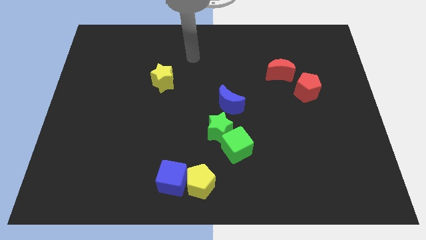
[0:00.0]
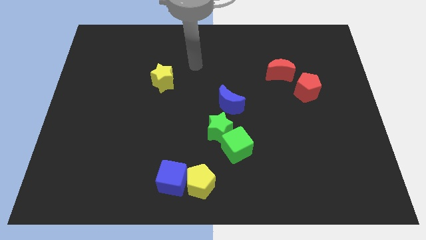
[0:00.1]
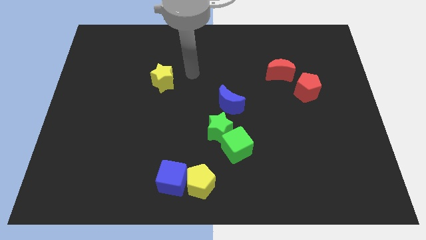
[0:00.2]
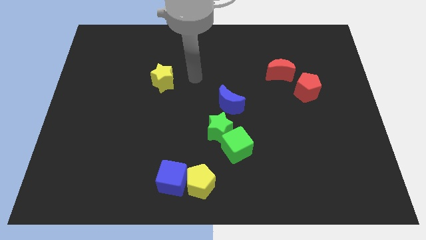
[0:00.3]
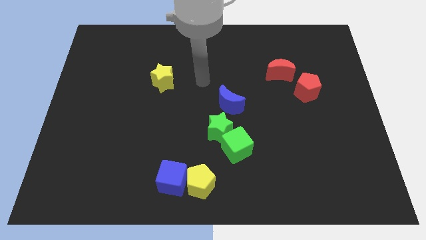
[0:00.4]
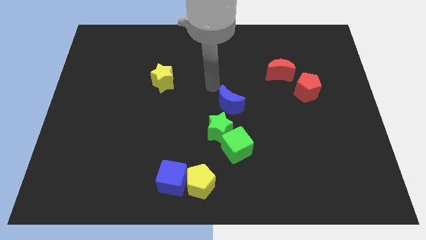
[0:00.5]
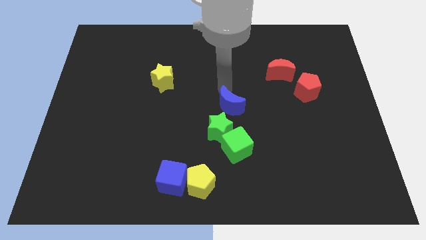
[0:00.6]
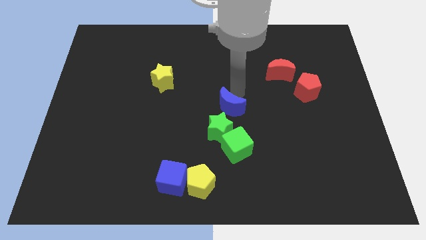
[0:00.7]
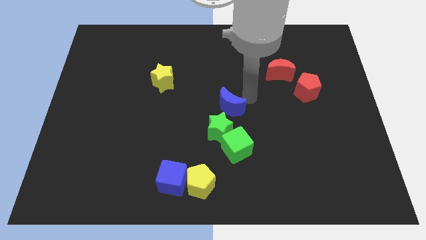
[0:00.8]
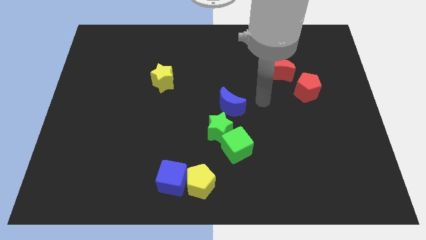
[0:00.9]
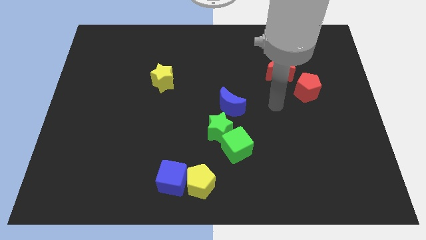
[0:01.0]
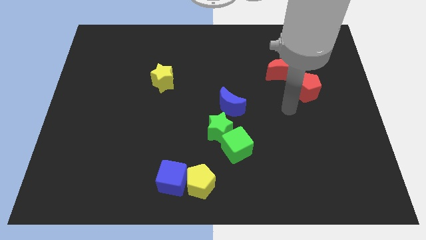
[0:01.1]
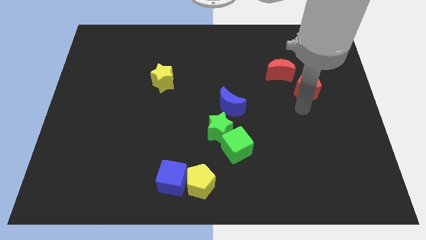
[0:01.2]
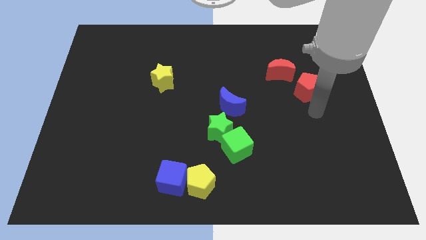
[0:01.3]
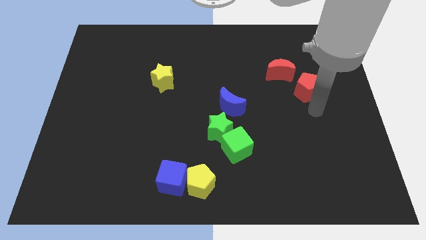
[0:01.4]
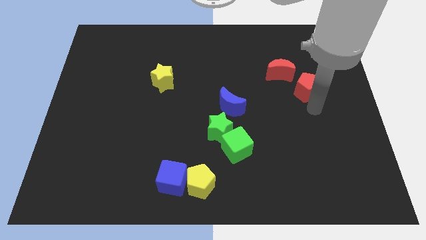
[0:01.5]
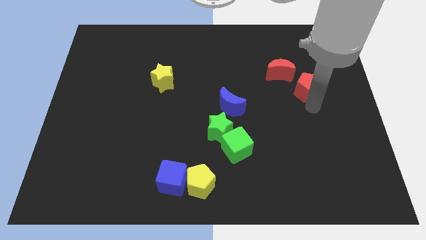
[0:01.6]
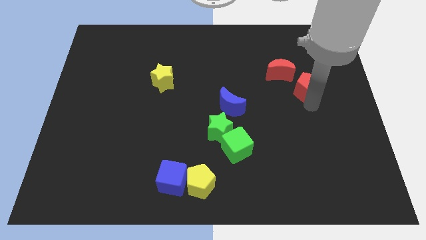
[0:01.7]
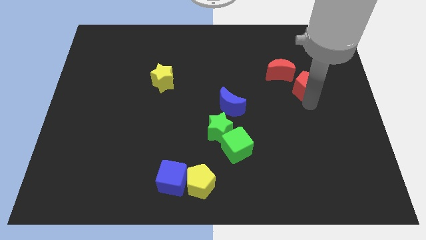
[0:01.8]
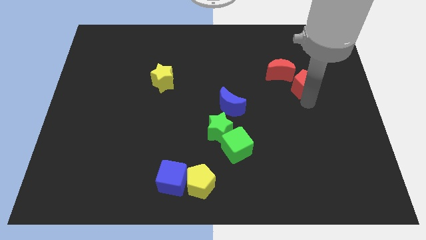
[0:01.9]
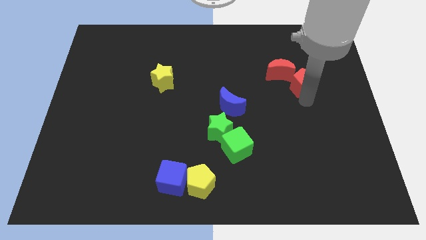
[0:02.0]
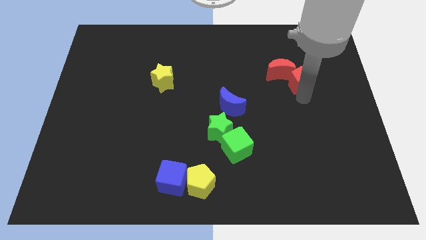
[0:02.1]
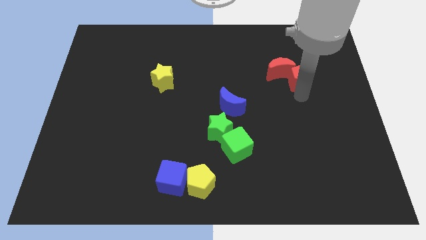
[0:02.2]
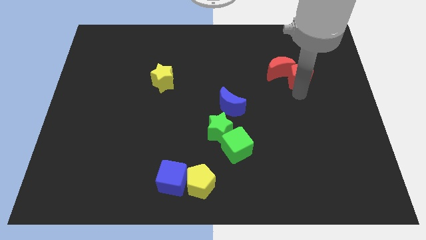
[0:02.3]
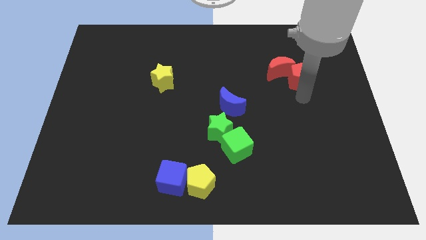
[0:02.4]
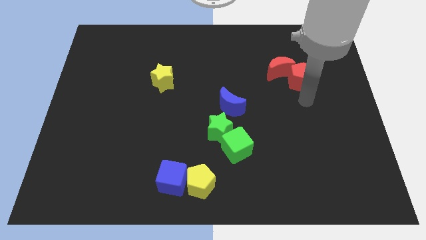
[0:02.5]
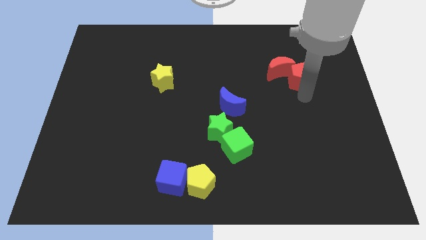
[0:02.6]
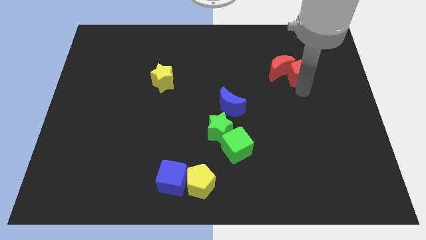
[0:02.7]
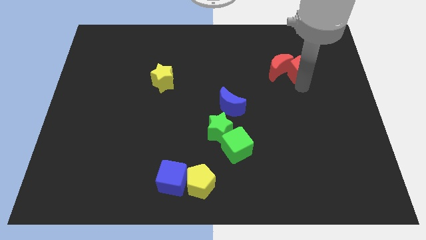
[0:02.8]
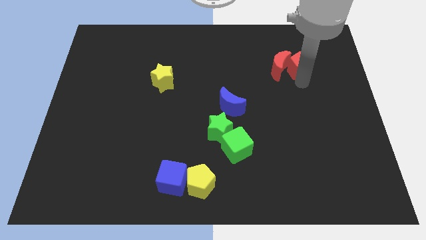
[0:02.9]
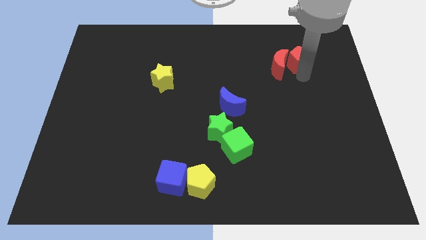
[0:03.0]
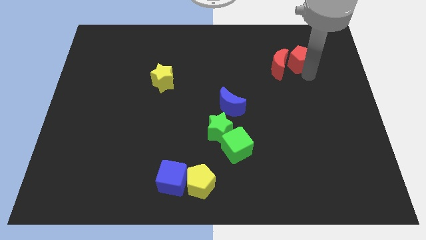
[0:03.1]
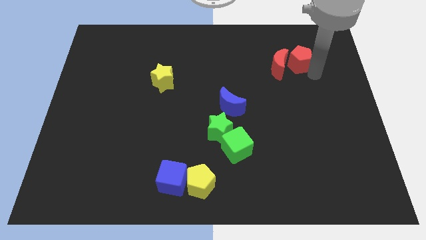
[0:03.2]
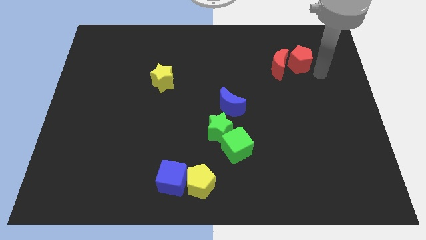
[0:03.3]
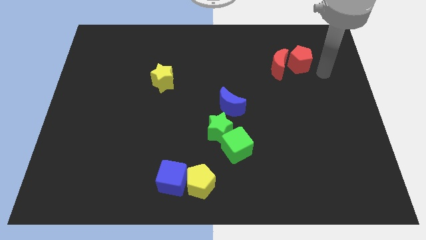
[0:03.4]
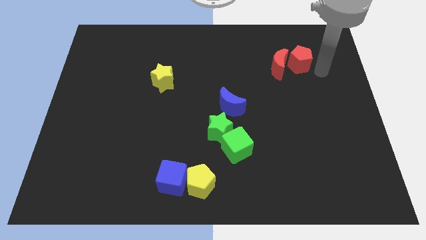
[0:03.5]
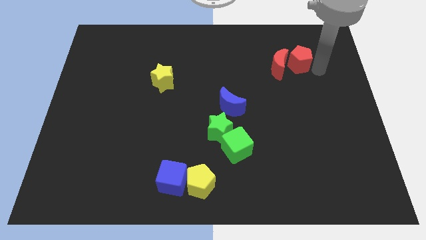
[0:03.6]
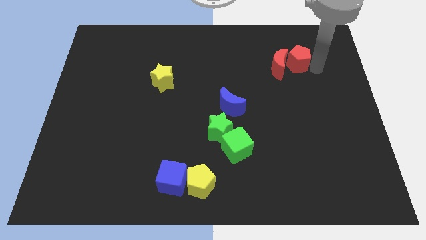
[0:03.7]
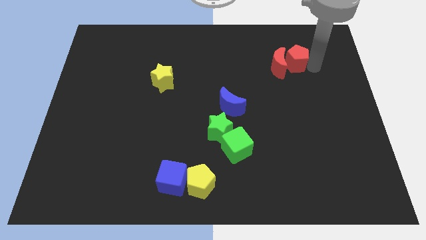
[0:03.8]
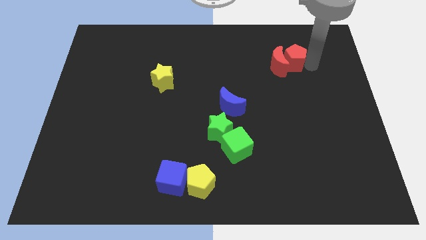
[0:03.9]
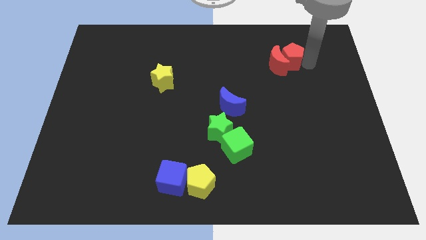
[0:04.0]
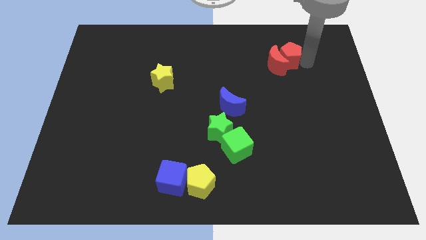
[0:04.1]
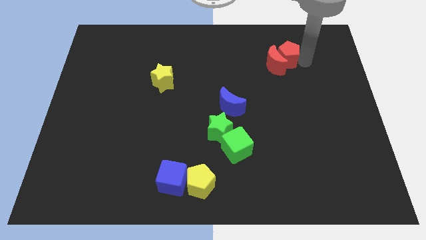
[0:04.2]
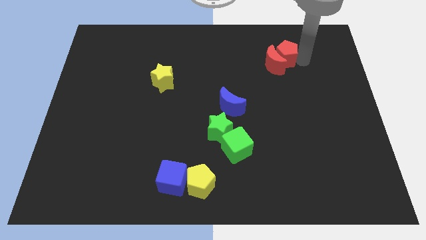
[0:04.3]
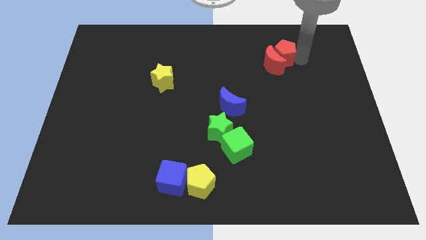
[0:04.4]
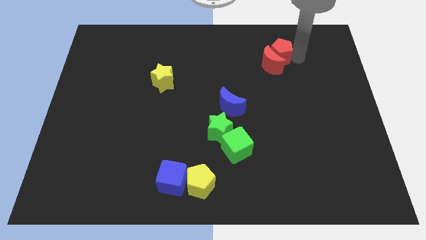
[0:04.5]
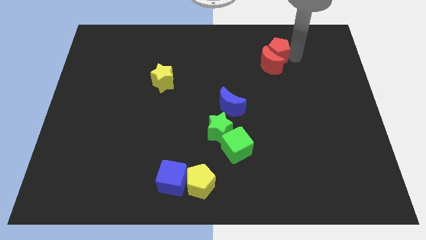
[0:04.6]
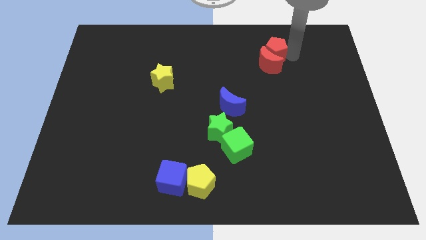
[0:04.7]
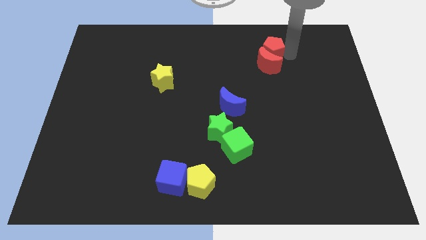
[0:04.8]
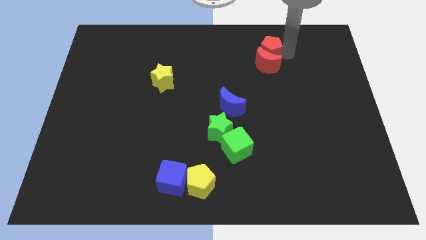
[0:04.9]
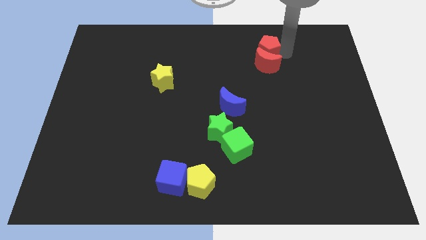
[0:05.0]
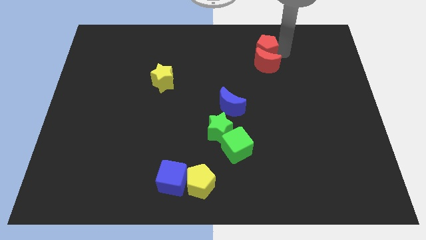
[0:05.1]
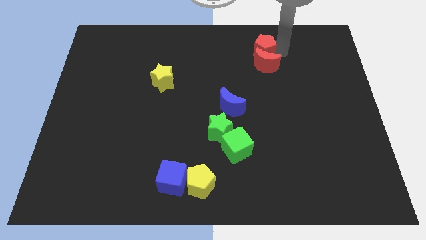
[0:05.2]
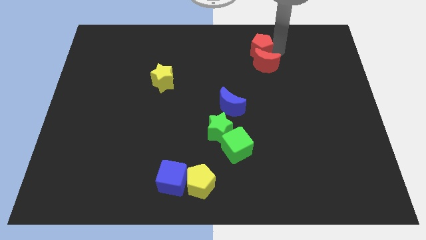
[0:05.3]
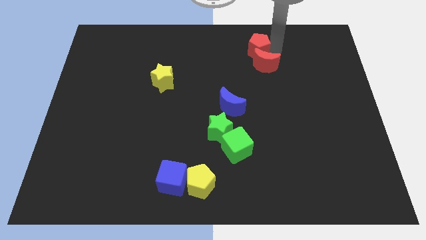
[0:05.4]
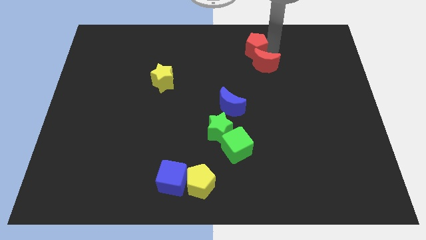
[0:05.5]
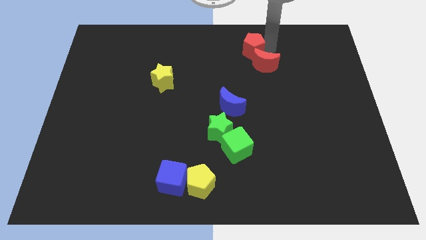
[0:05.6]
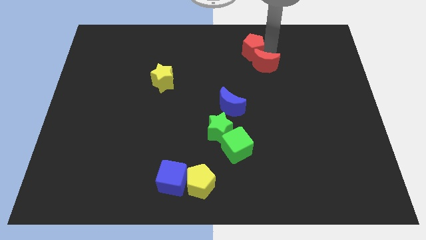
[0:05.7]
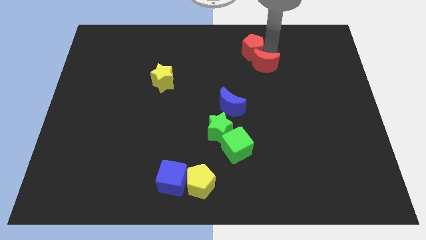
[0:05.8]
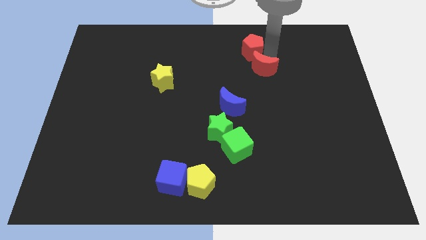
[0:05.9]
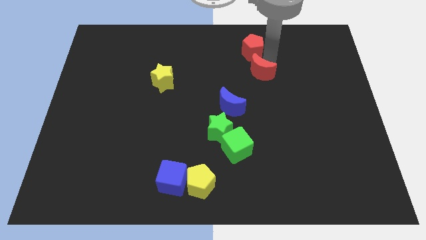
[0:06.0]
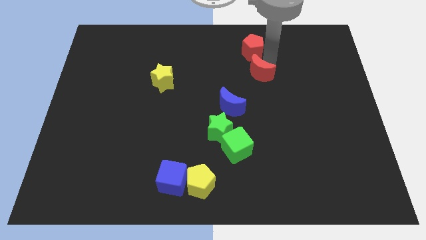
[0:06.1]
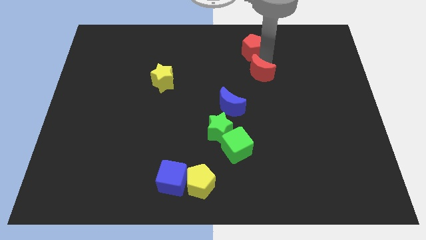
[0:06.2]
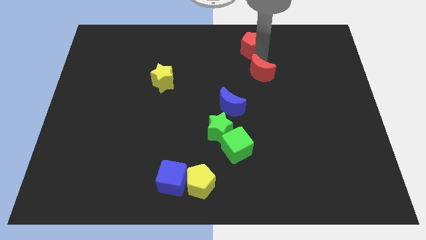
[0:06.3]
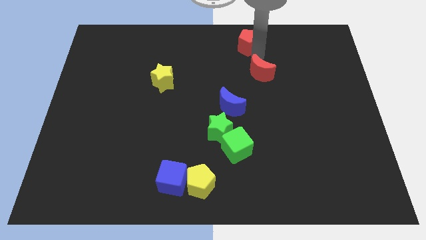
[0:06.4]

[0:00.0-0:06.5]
slide the red pentagon to the towards your base

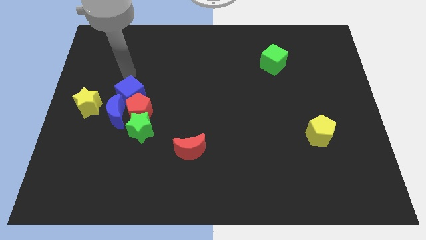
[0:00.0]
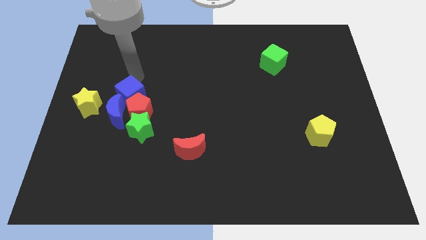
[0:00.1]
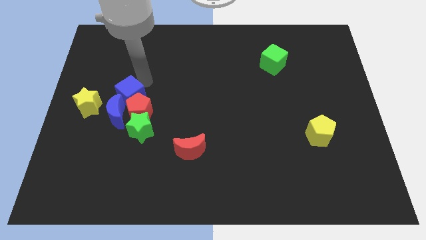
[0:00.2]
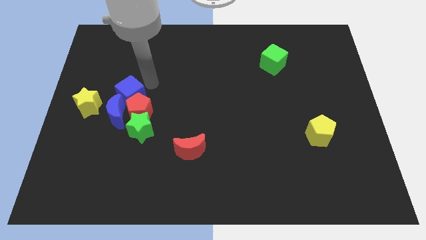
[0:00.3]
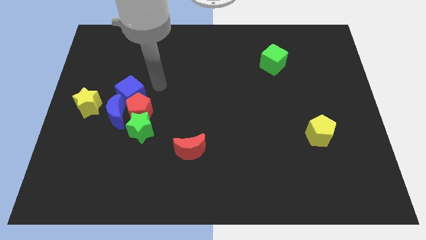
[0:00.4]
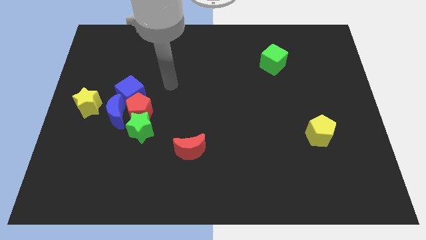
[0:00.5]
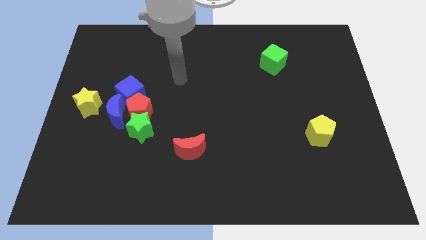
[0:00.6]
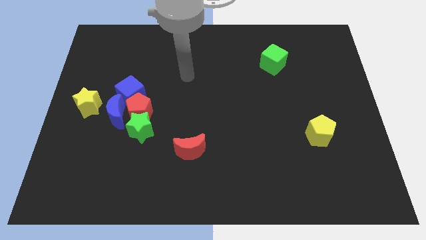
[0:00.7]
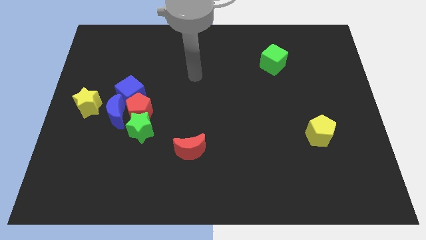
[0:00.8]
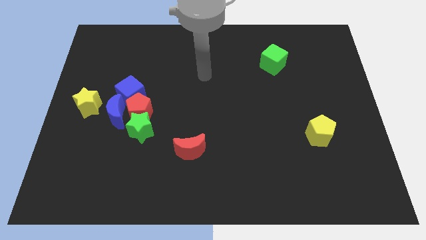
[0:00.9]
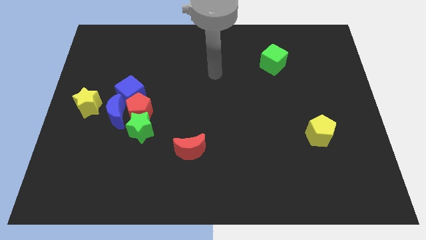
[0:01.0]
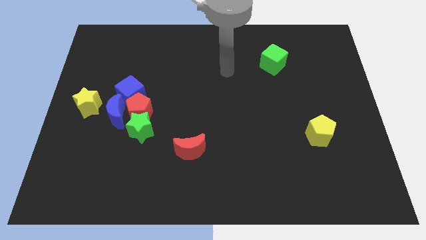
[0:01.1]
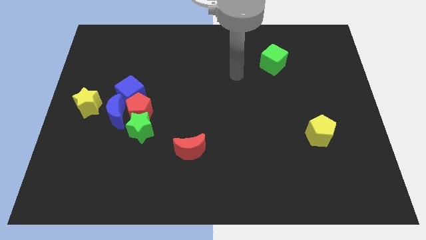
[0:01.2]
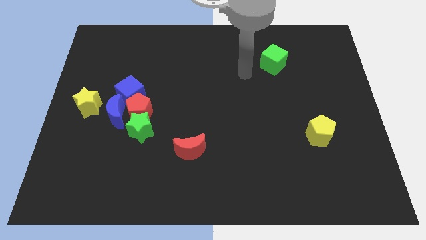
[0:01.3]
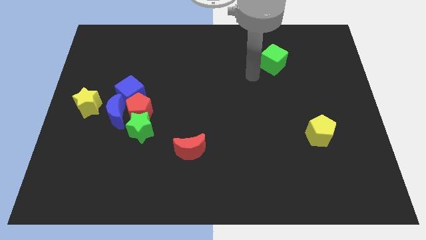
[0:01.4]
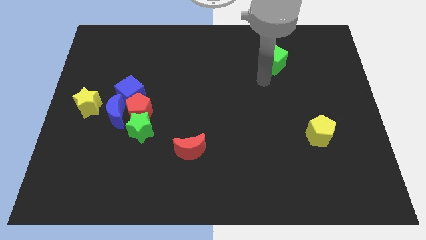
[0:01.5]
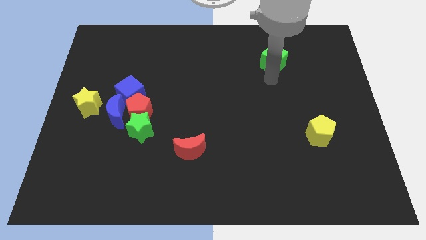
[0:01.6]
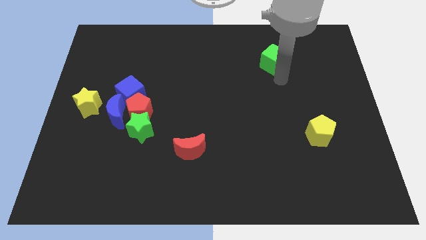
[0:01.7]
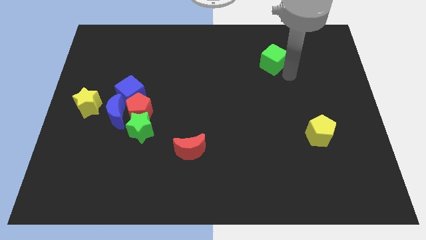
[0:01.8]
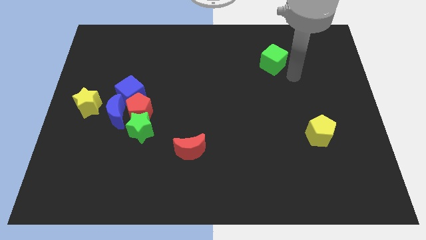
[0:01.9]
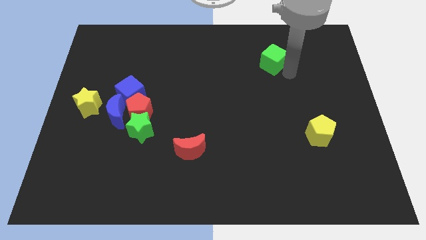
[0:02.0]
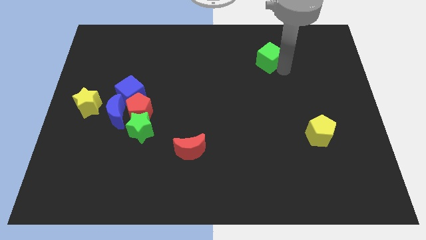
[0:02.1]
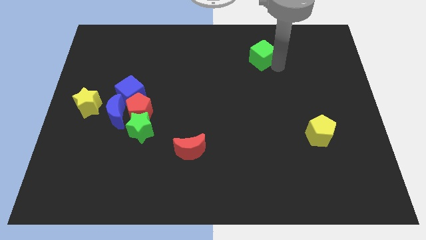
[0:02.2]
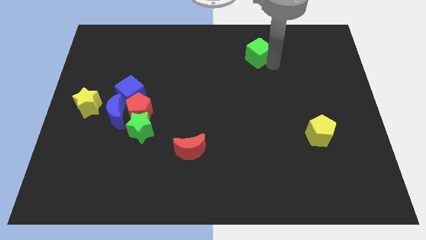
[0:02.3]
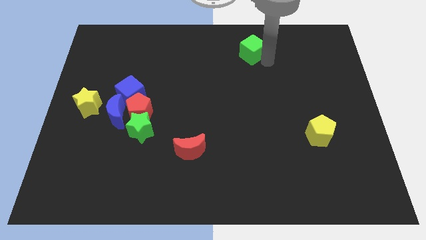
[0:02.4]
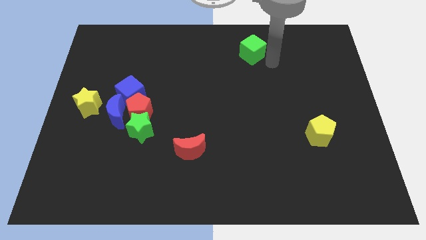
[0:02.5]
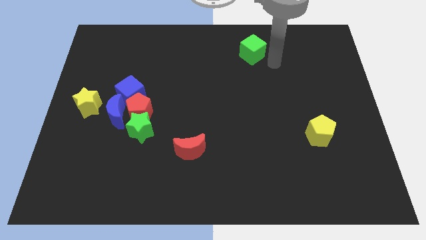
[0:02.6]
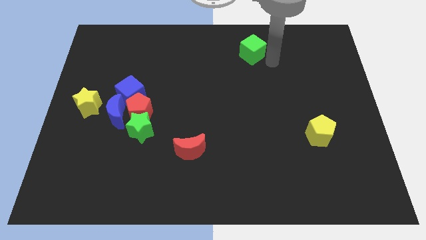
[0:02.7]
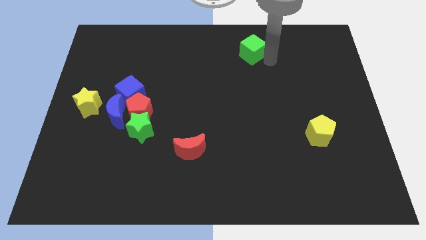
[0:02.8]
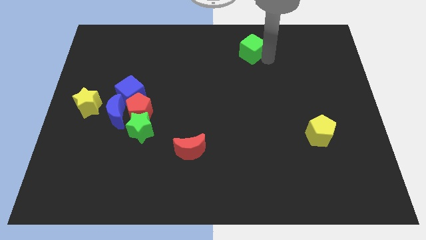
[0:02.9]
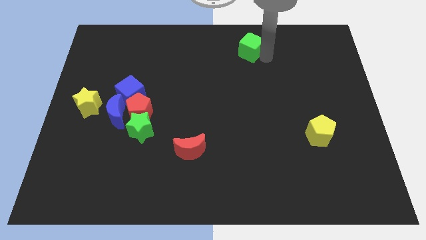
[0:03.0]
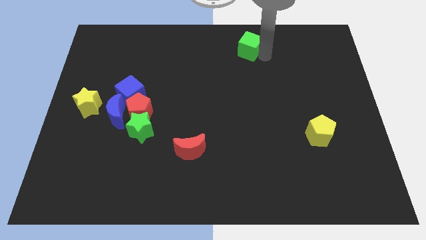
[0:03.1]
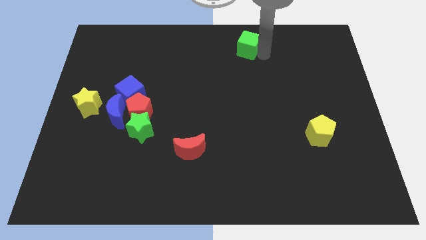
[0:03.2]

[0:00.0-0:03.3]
slide the green cube to the top side
